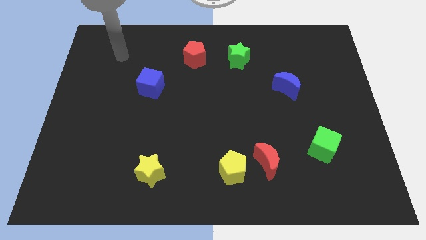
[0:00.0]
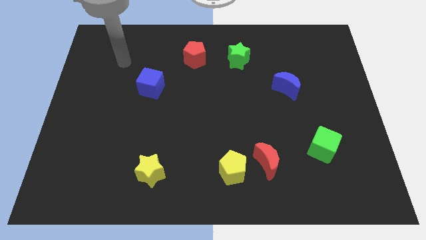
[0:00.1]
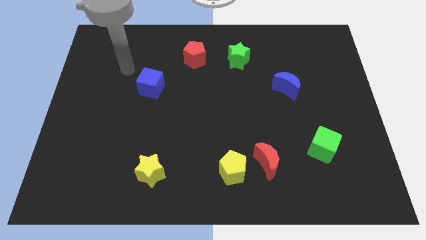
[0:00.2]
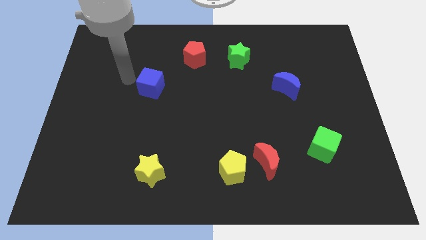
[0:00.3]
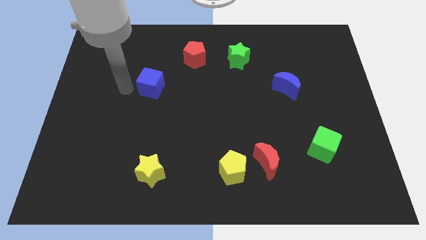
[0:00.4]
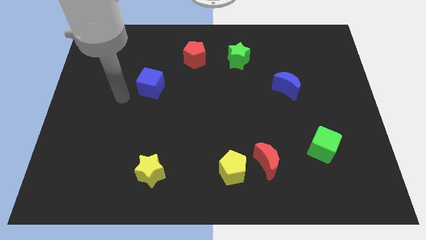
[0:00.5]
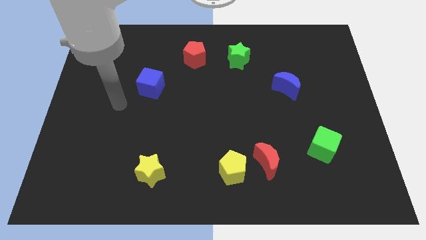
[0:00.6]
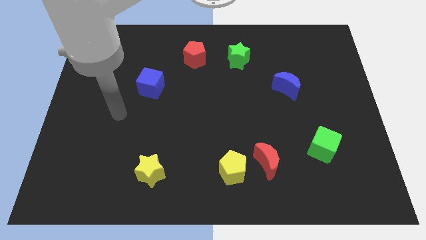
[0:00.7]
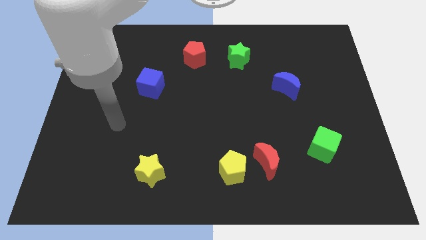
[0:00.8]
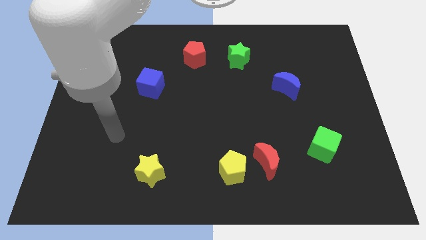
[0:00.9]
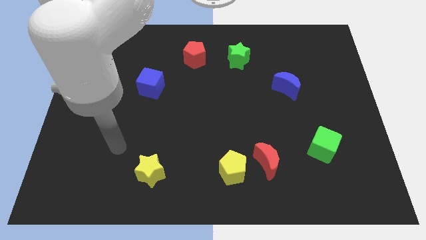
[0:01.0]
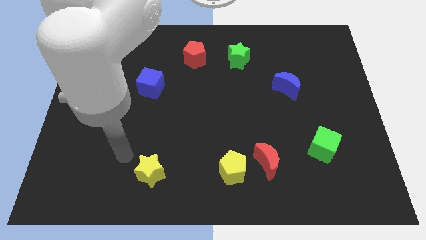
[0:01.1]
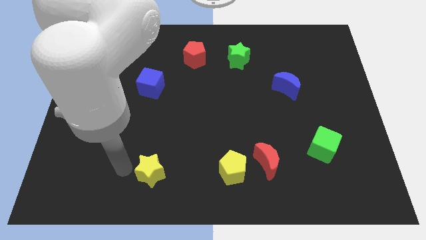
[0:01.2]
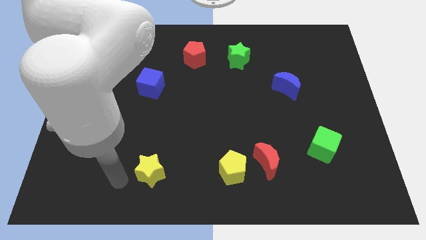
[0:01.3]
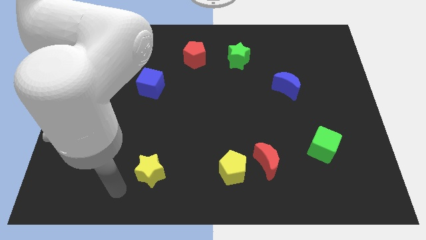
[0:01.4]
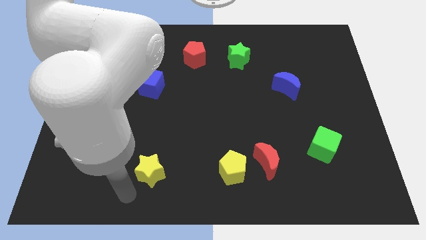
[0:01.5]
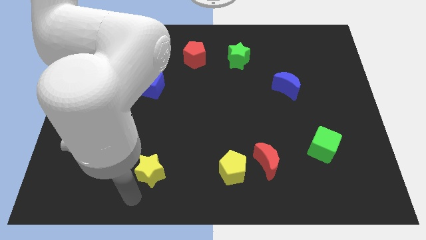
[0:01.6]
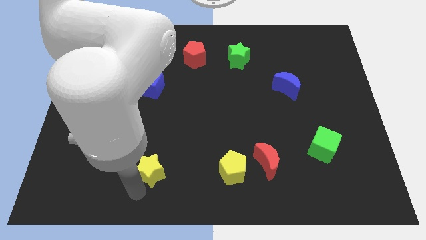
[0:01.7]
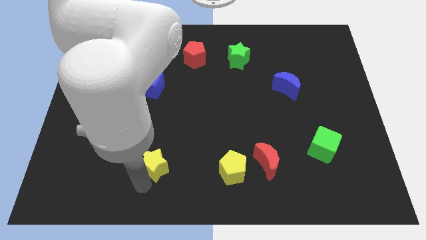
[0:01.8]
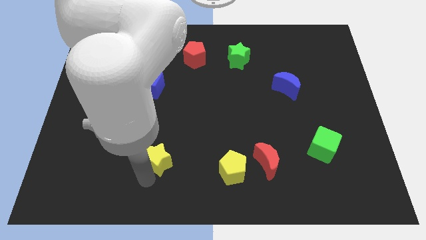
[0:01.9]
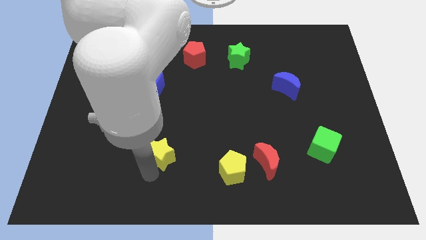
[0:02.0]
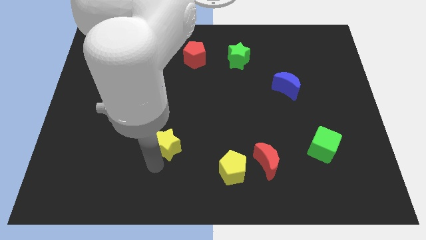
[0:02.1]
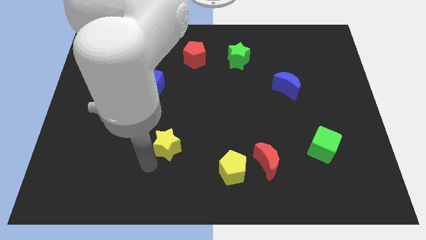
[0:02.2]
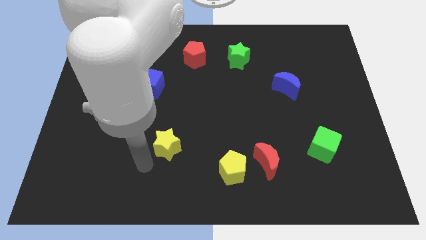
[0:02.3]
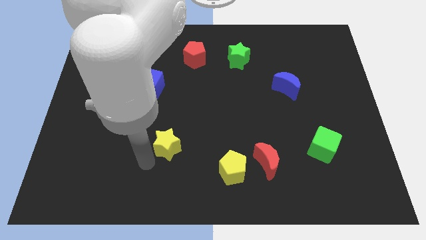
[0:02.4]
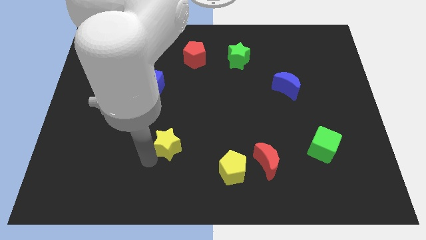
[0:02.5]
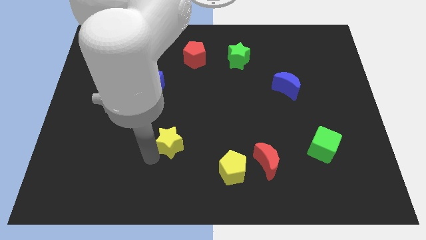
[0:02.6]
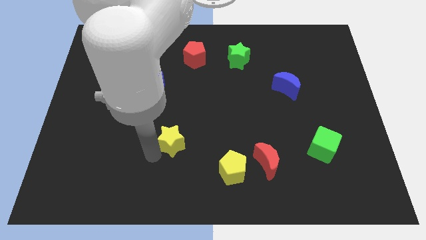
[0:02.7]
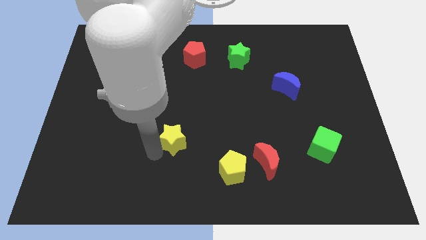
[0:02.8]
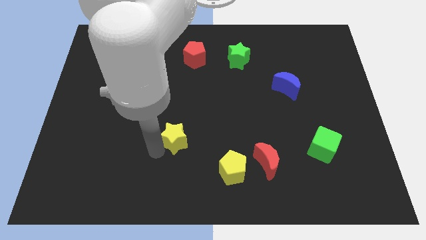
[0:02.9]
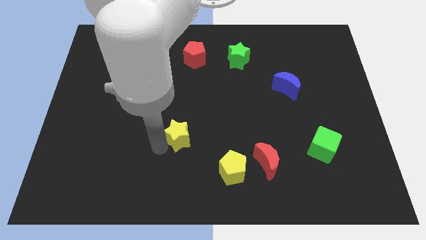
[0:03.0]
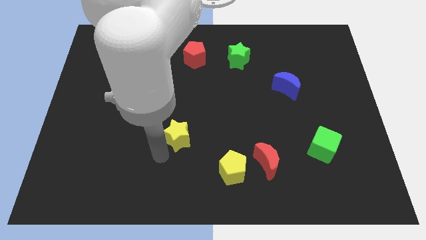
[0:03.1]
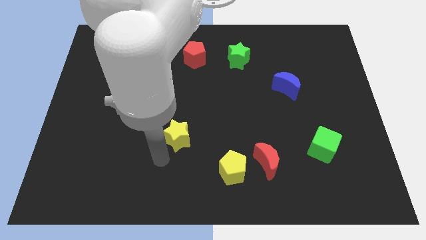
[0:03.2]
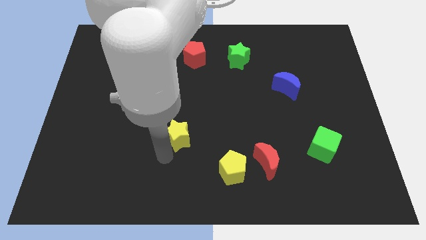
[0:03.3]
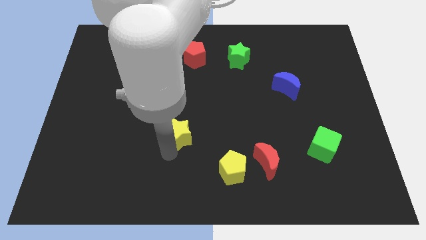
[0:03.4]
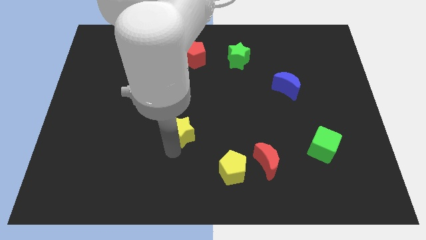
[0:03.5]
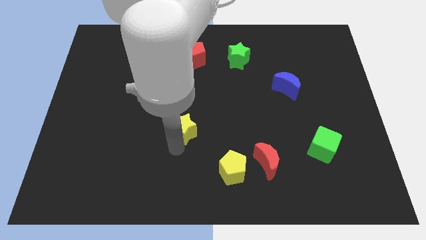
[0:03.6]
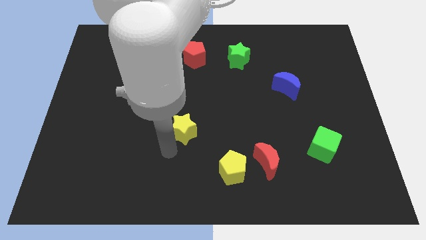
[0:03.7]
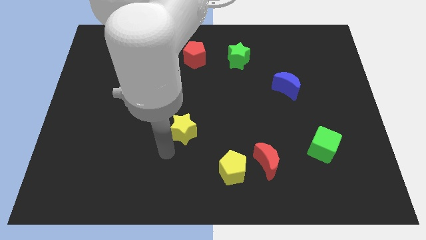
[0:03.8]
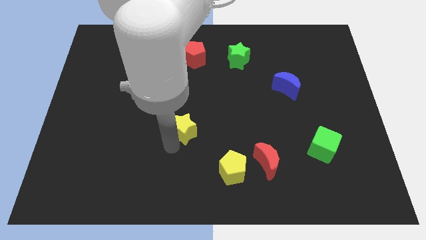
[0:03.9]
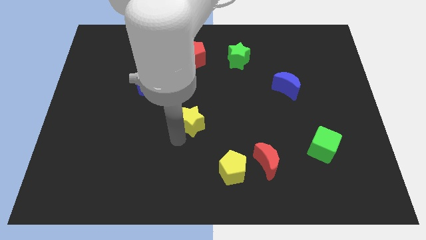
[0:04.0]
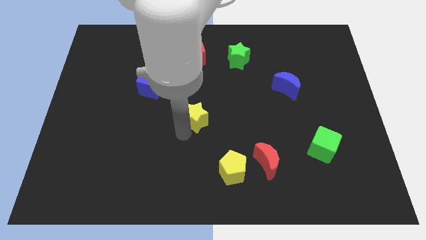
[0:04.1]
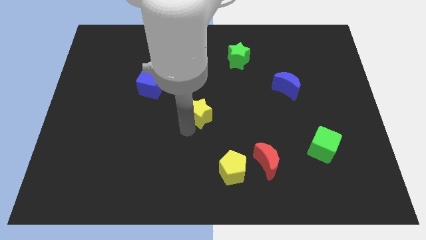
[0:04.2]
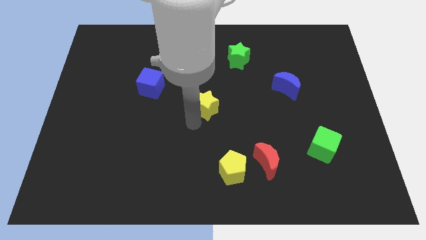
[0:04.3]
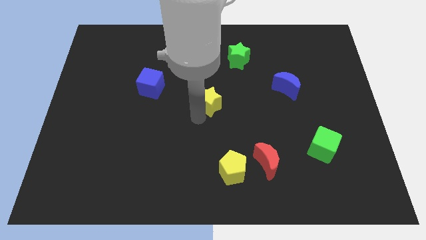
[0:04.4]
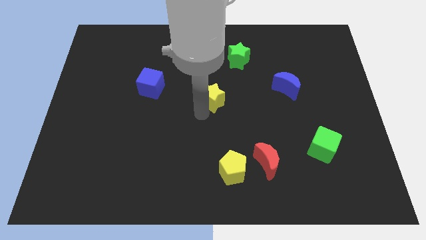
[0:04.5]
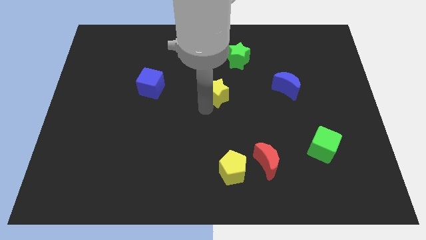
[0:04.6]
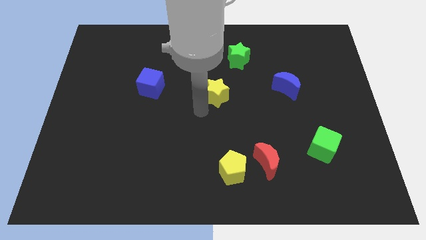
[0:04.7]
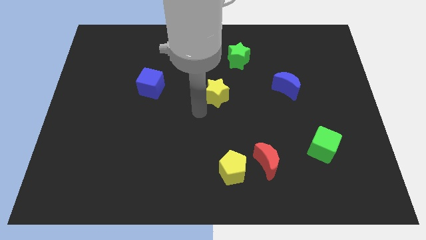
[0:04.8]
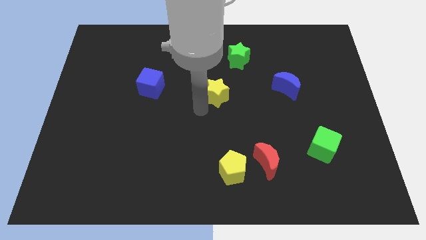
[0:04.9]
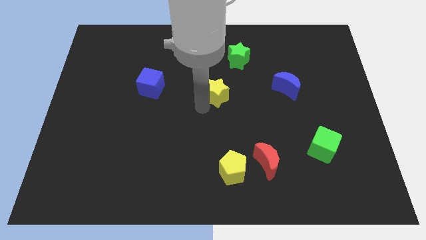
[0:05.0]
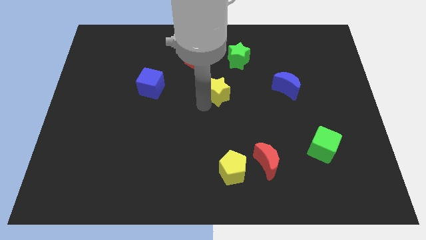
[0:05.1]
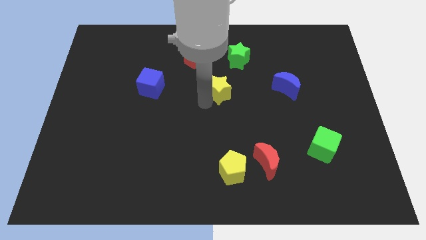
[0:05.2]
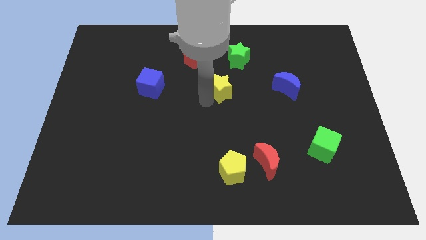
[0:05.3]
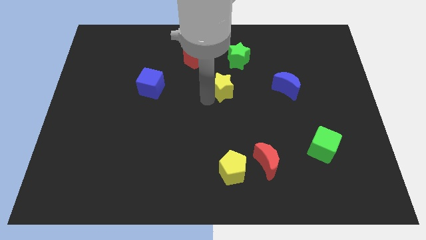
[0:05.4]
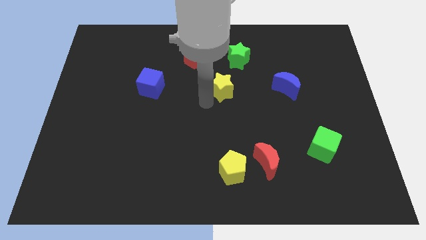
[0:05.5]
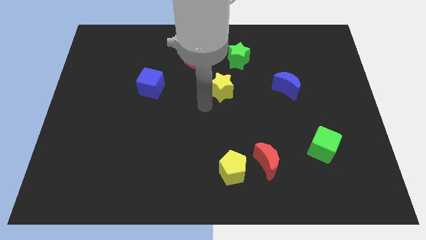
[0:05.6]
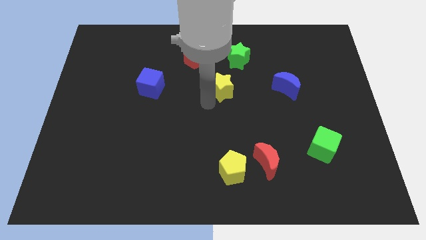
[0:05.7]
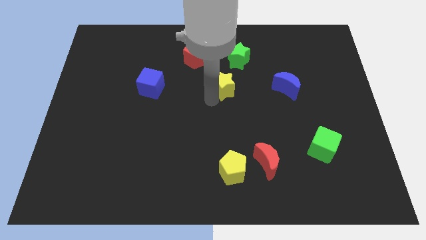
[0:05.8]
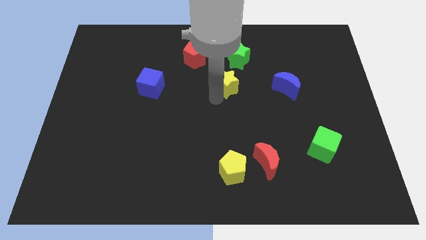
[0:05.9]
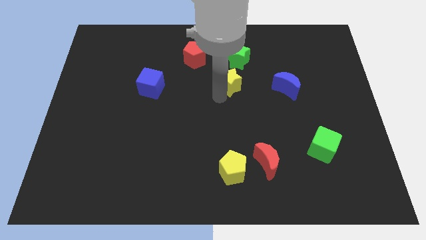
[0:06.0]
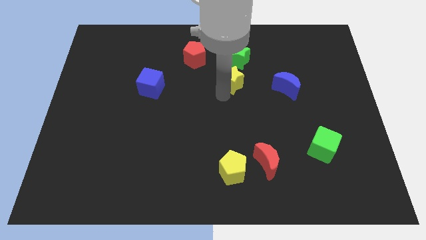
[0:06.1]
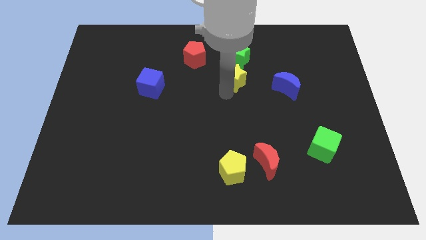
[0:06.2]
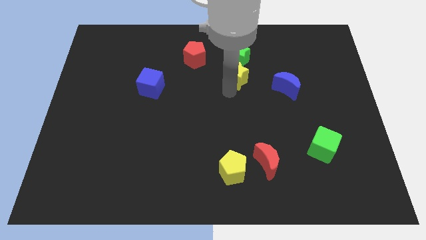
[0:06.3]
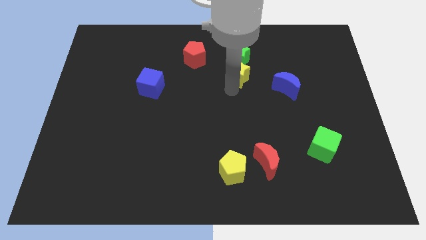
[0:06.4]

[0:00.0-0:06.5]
put the yellow star close to the green star
